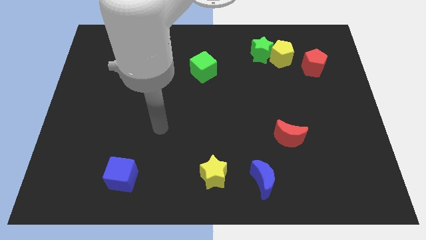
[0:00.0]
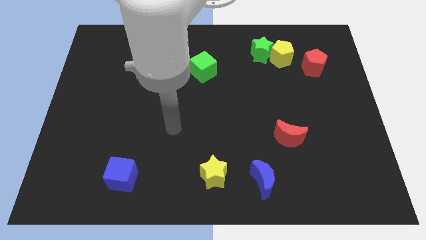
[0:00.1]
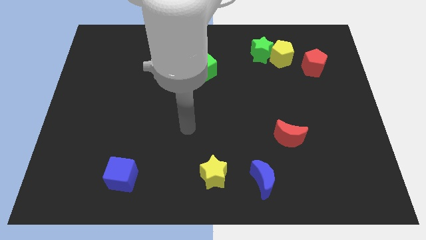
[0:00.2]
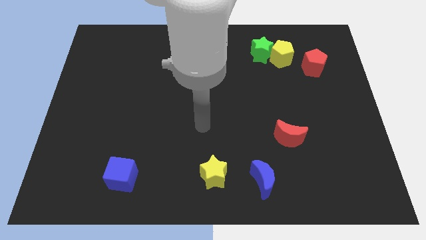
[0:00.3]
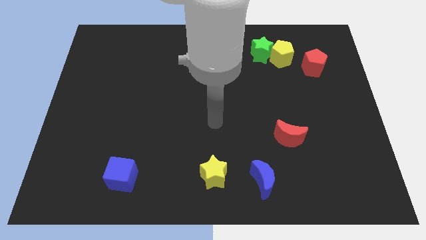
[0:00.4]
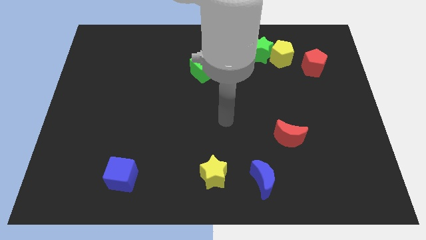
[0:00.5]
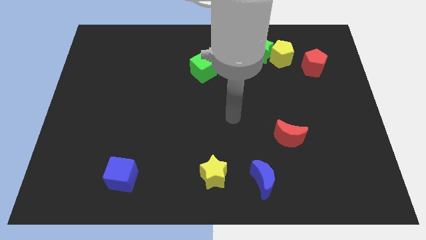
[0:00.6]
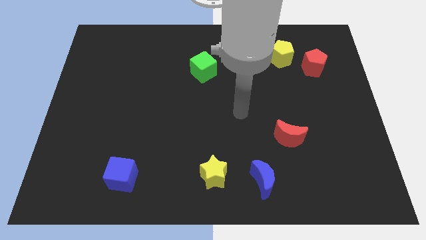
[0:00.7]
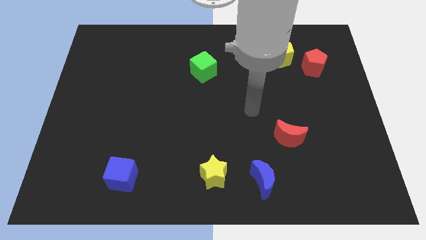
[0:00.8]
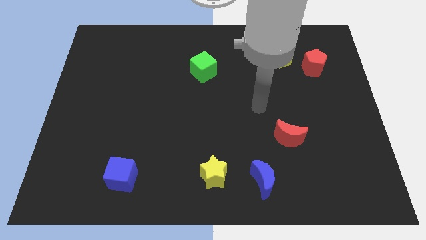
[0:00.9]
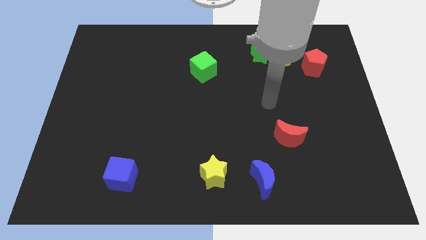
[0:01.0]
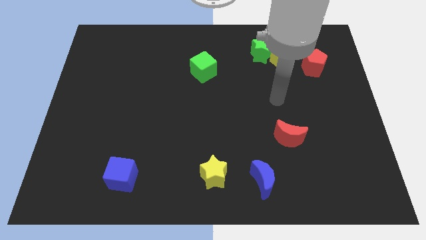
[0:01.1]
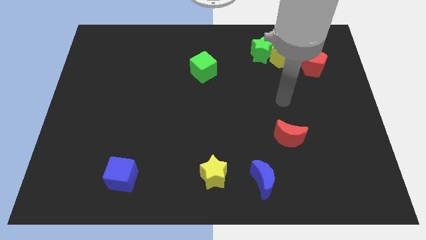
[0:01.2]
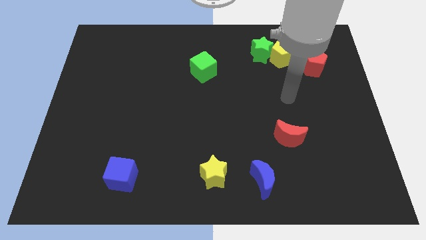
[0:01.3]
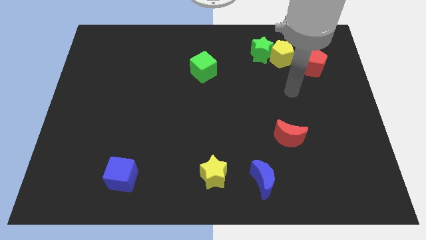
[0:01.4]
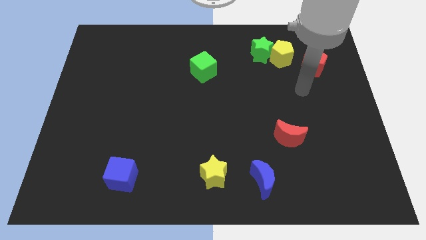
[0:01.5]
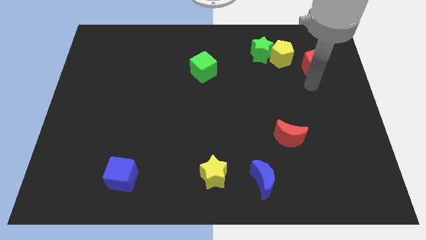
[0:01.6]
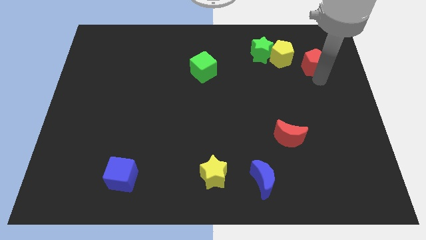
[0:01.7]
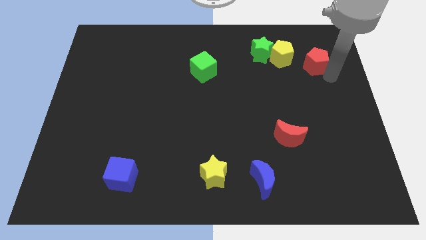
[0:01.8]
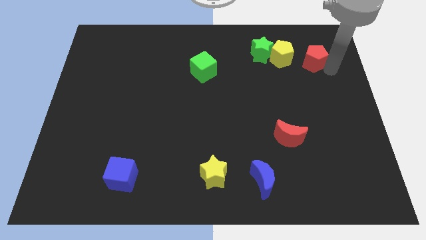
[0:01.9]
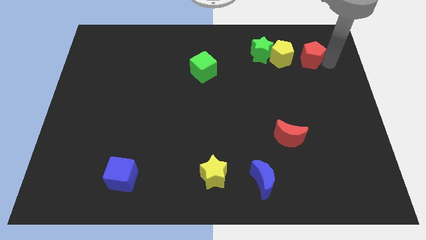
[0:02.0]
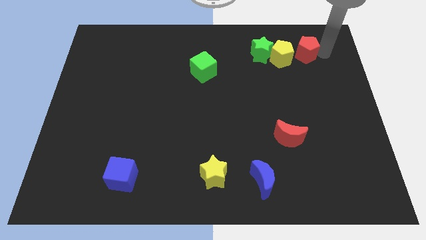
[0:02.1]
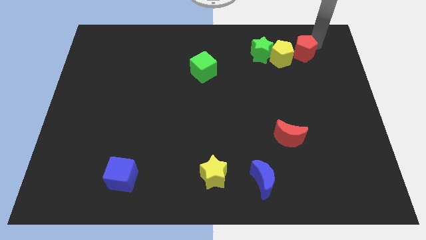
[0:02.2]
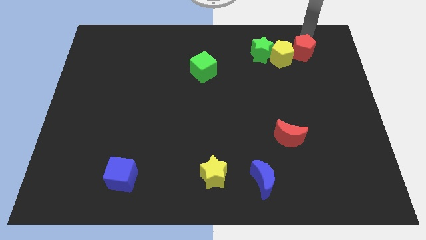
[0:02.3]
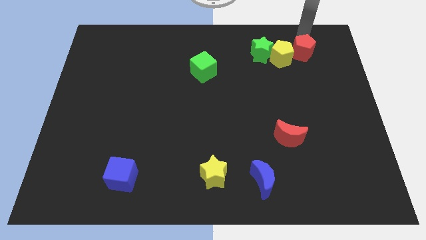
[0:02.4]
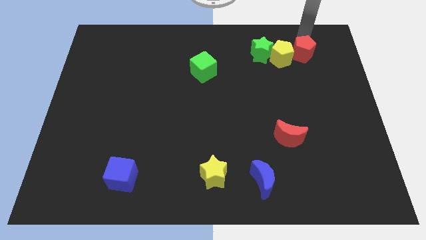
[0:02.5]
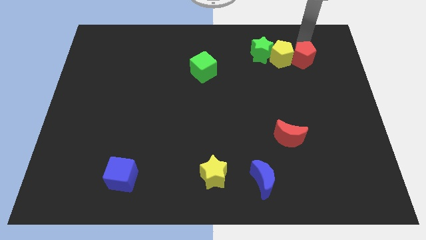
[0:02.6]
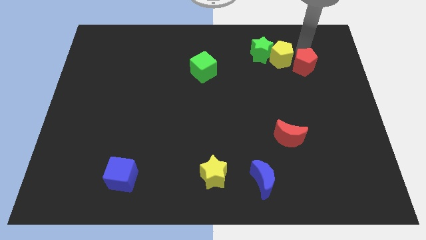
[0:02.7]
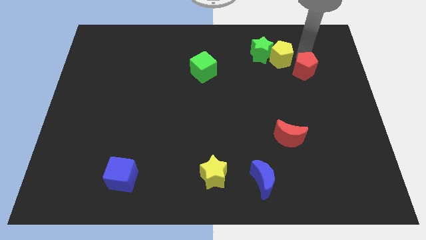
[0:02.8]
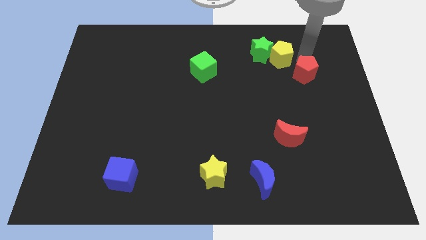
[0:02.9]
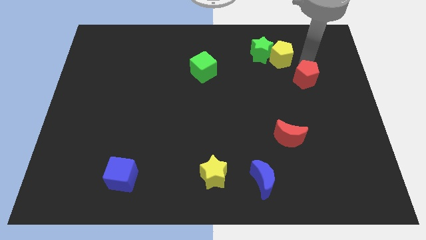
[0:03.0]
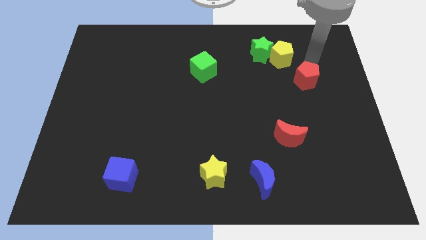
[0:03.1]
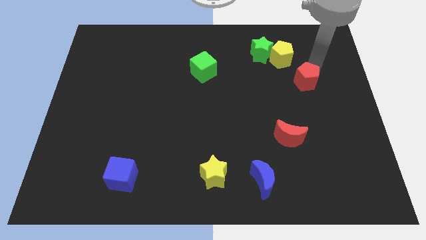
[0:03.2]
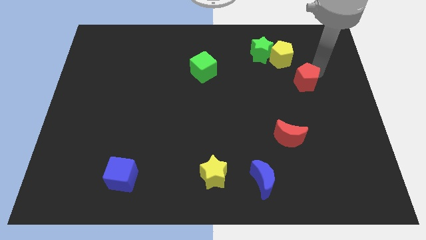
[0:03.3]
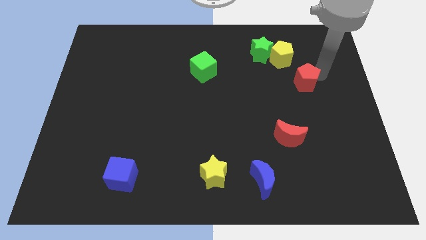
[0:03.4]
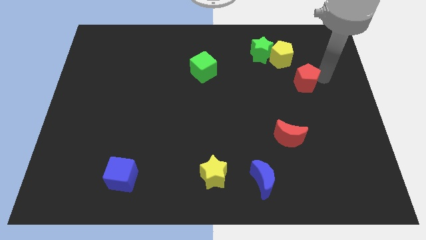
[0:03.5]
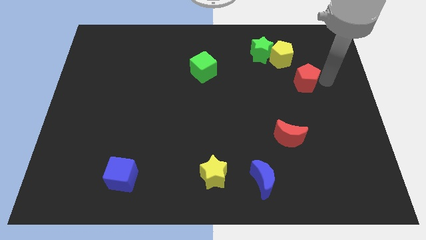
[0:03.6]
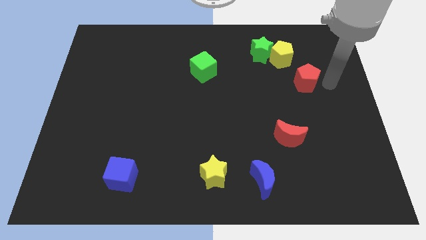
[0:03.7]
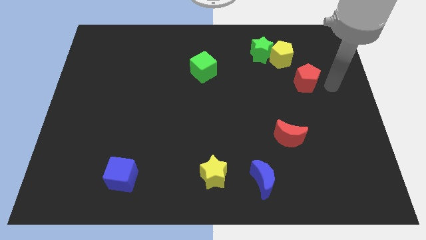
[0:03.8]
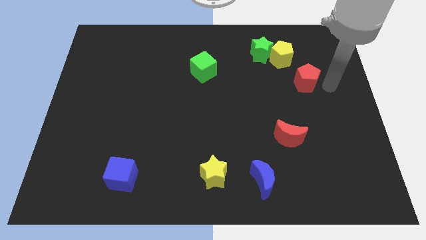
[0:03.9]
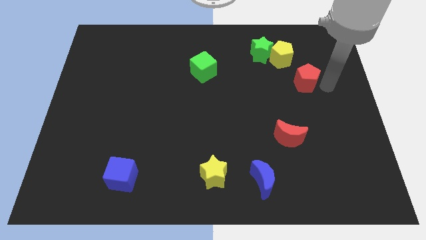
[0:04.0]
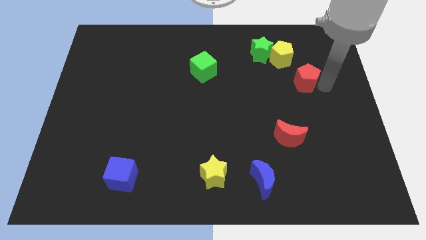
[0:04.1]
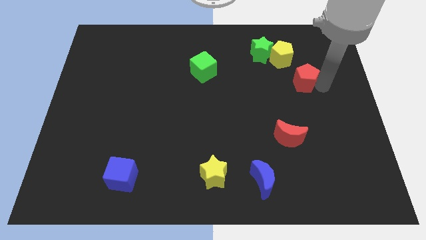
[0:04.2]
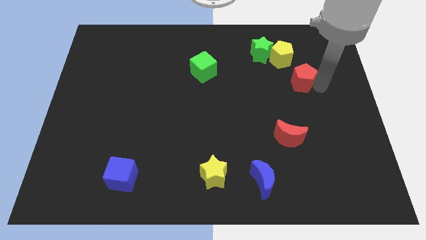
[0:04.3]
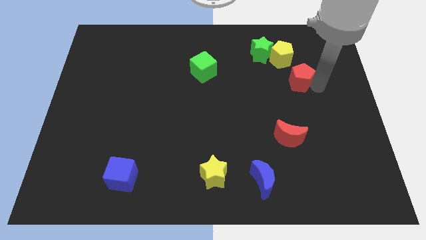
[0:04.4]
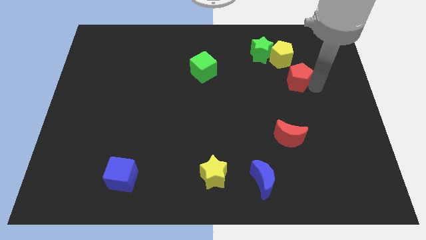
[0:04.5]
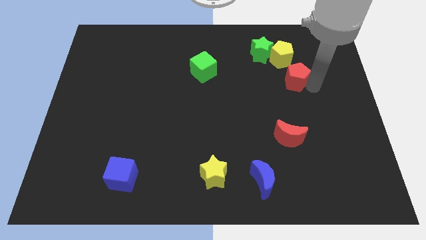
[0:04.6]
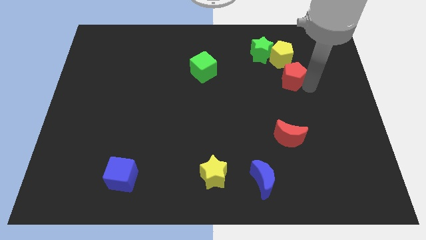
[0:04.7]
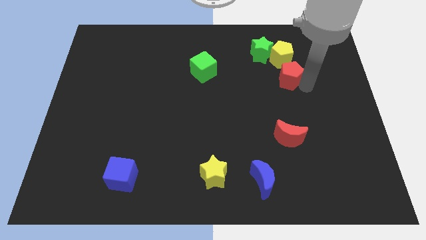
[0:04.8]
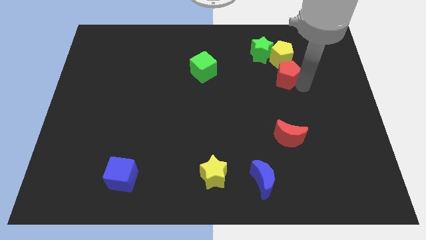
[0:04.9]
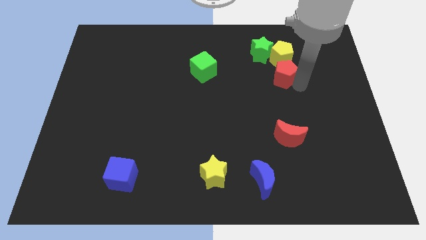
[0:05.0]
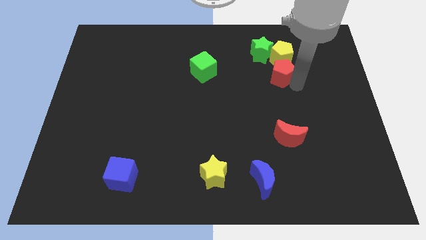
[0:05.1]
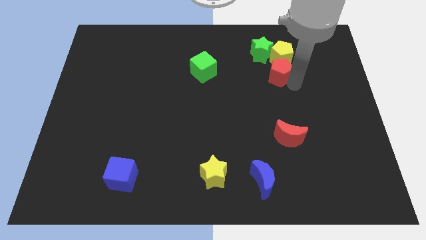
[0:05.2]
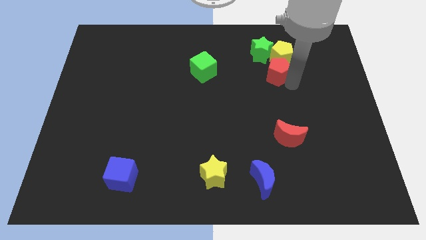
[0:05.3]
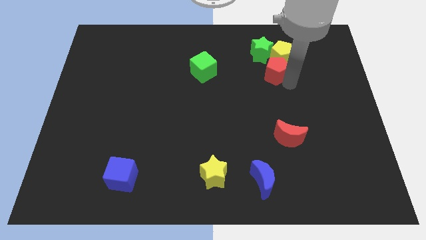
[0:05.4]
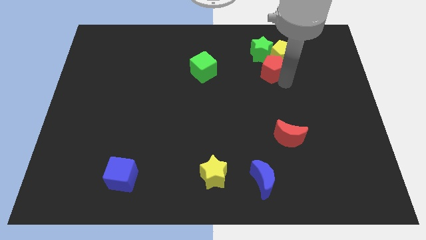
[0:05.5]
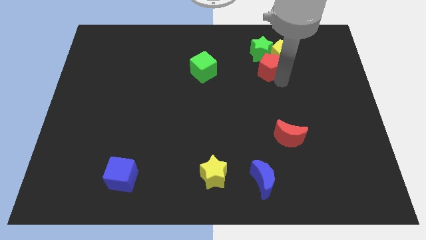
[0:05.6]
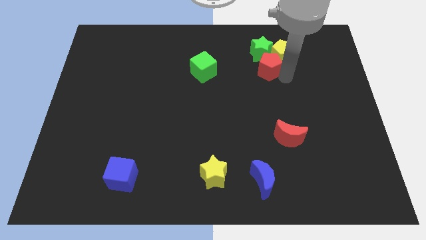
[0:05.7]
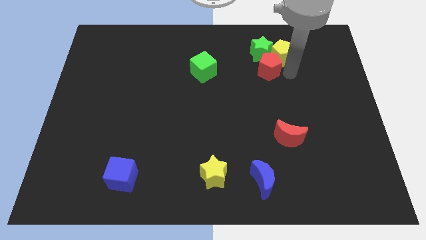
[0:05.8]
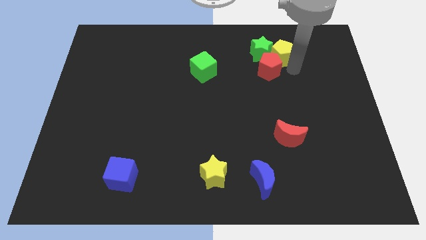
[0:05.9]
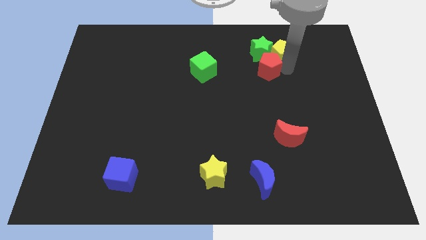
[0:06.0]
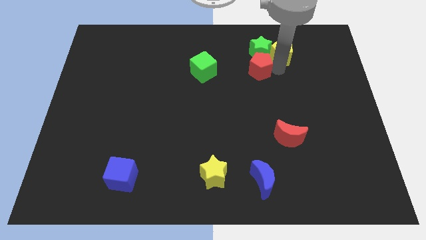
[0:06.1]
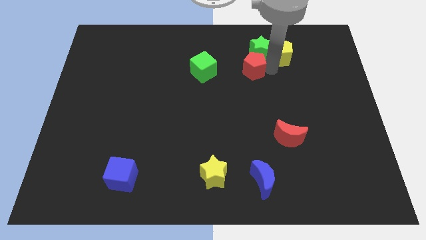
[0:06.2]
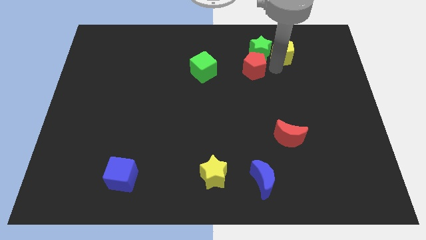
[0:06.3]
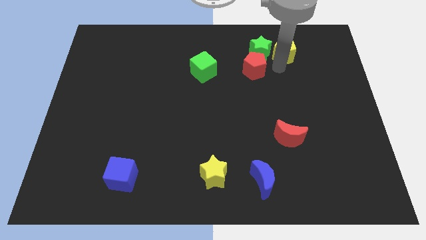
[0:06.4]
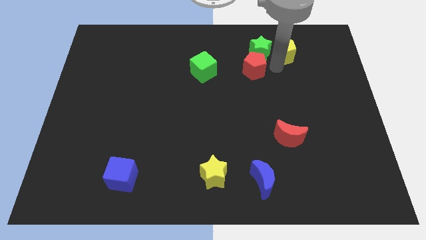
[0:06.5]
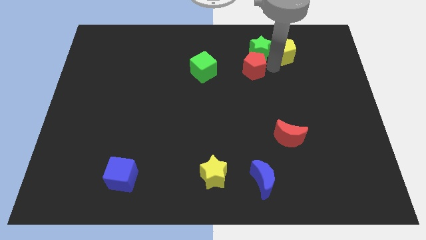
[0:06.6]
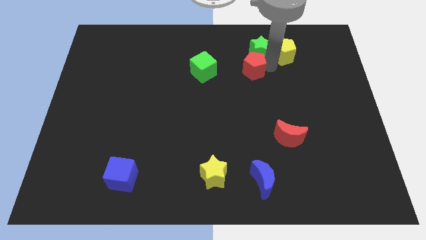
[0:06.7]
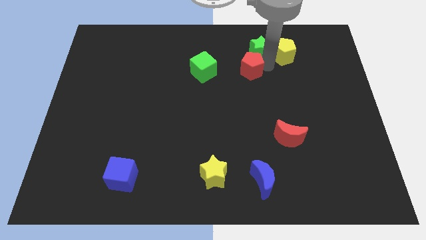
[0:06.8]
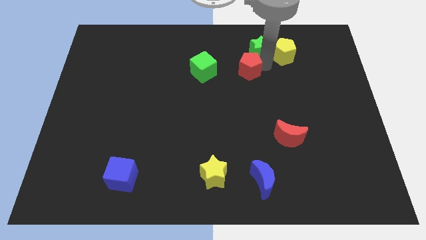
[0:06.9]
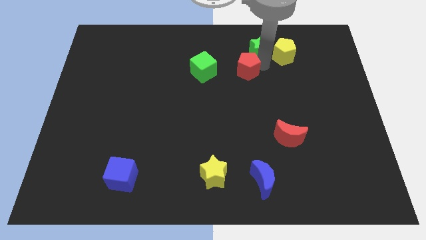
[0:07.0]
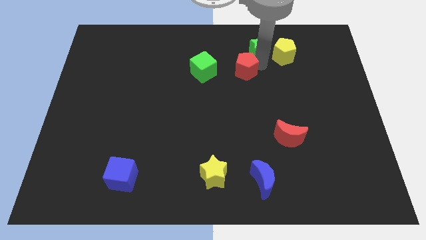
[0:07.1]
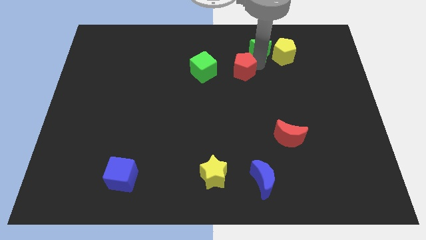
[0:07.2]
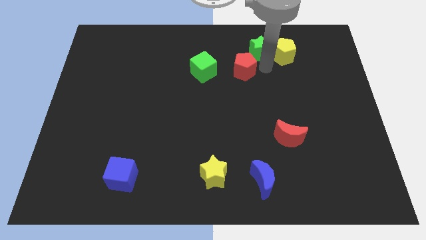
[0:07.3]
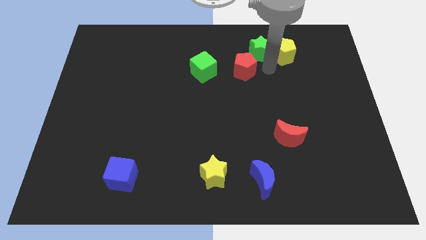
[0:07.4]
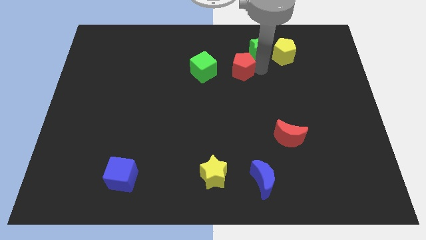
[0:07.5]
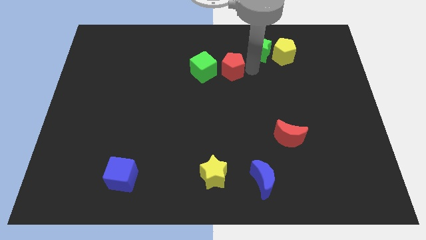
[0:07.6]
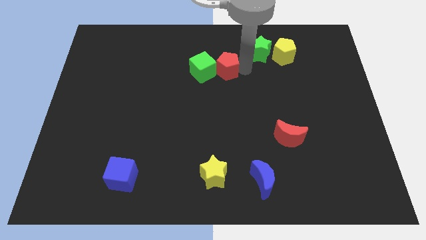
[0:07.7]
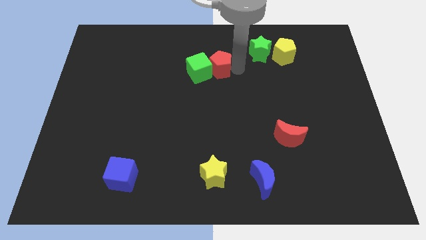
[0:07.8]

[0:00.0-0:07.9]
push the red pentagon to the green cube
